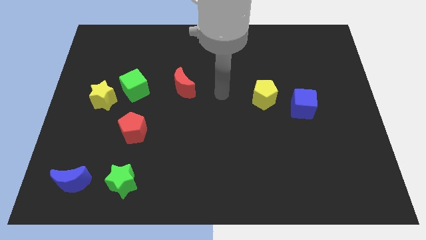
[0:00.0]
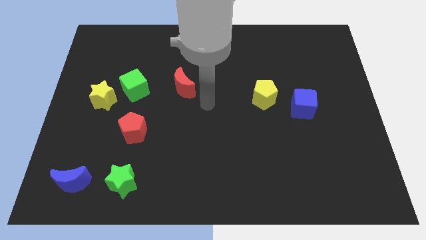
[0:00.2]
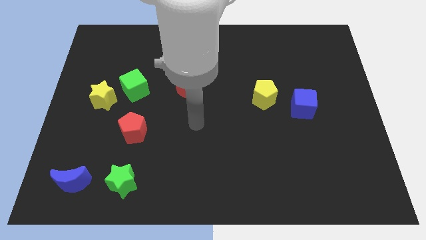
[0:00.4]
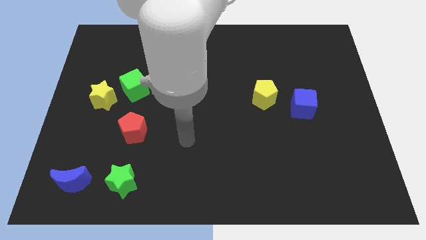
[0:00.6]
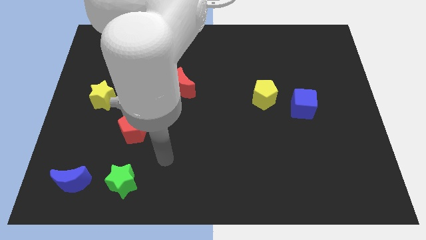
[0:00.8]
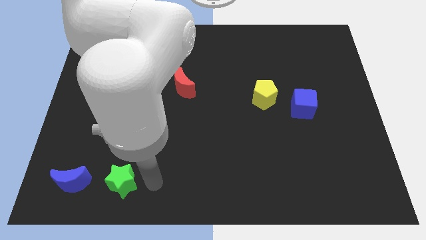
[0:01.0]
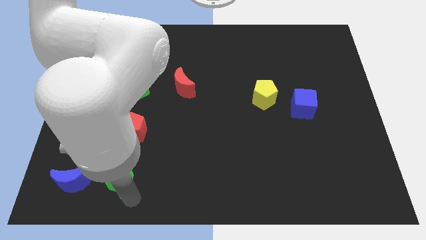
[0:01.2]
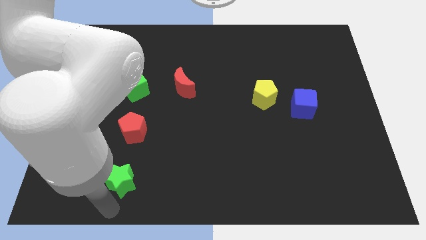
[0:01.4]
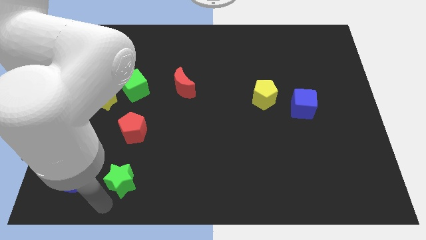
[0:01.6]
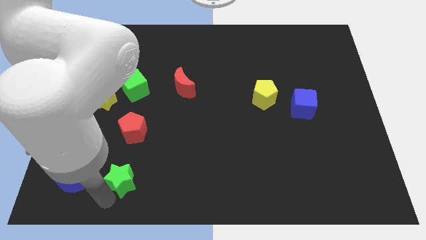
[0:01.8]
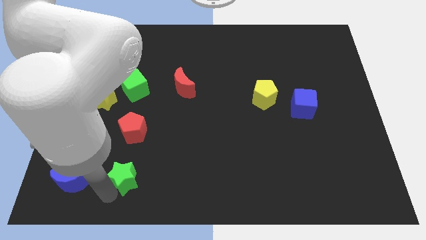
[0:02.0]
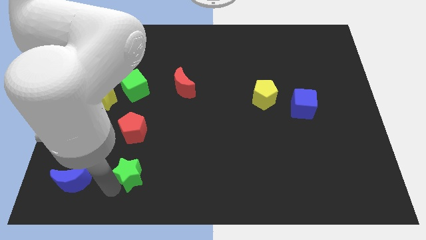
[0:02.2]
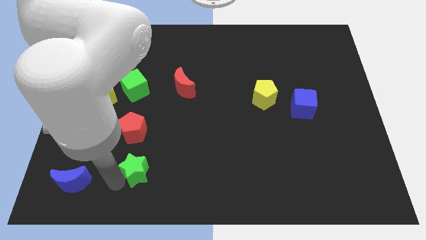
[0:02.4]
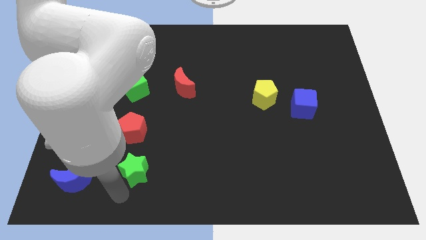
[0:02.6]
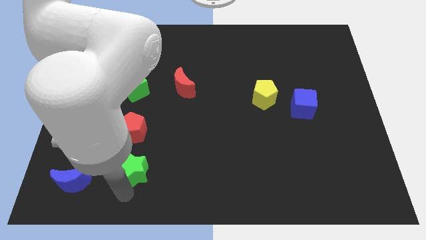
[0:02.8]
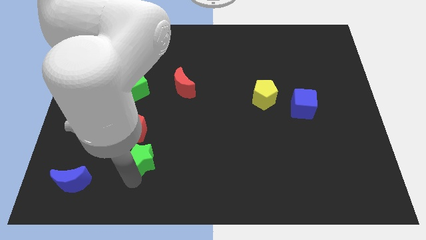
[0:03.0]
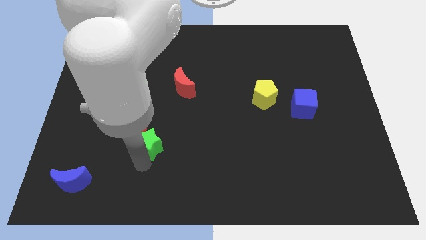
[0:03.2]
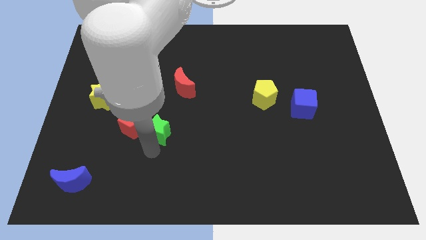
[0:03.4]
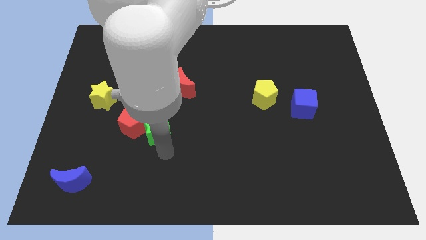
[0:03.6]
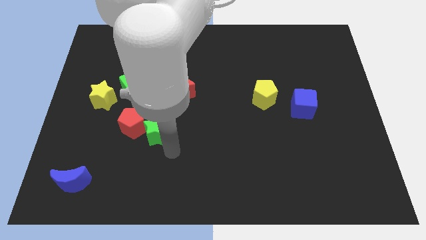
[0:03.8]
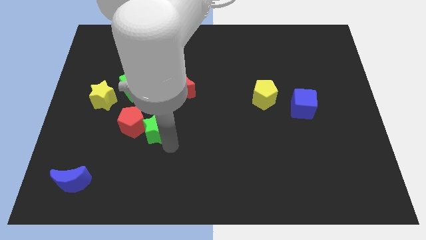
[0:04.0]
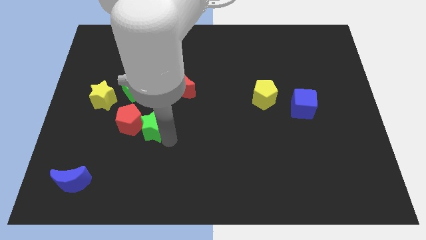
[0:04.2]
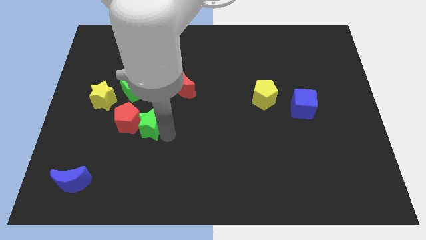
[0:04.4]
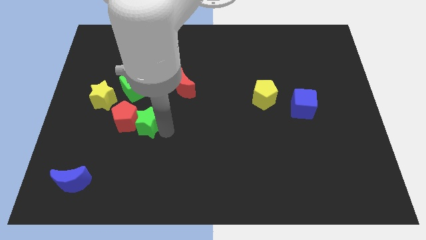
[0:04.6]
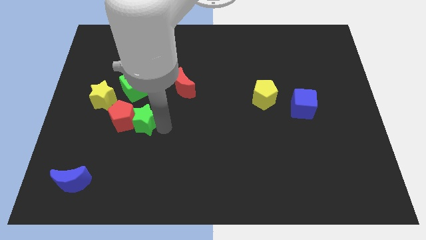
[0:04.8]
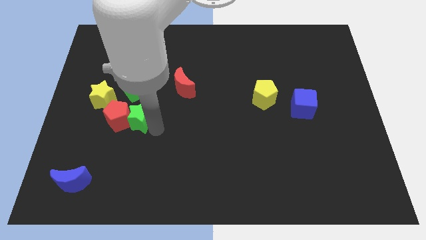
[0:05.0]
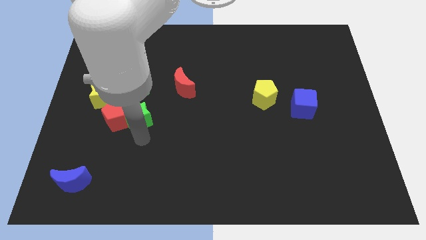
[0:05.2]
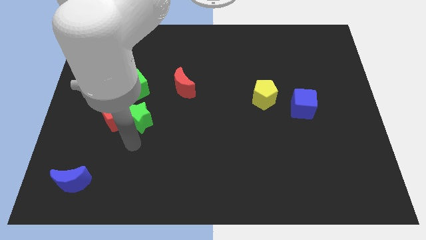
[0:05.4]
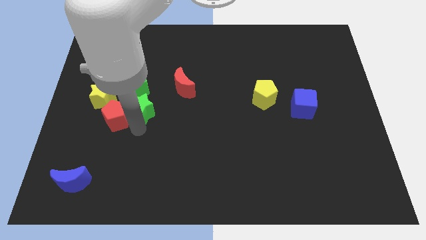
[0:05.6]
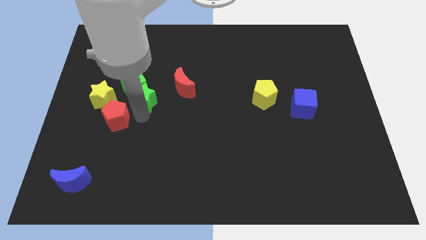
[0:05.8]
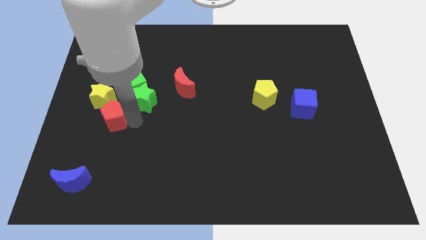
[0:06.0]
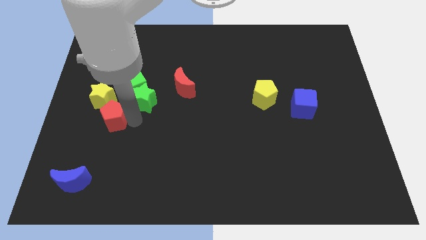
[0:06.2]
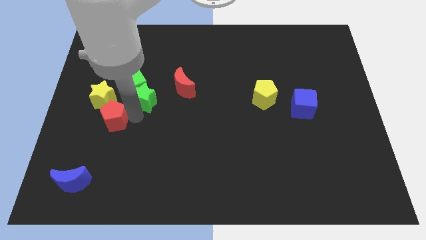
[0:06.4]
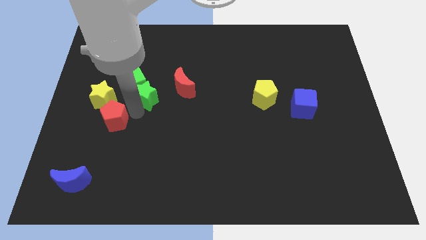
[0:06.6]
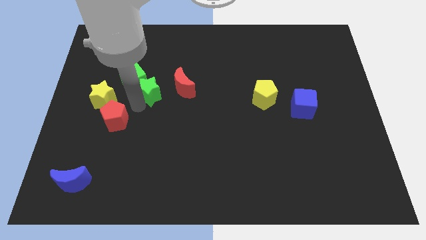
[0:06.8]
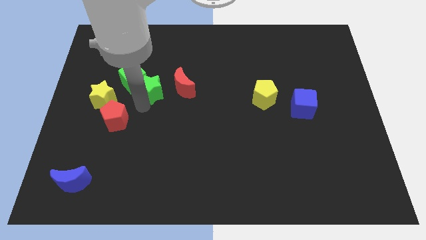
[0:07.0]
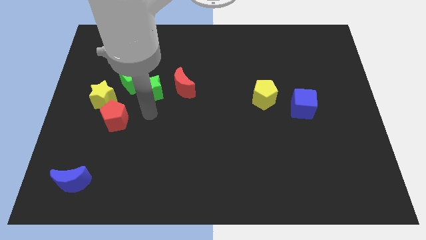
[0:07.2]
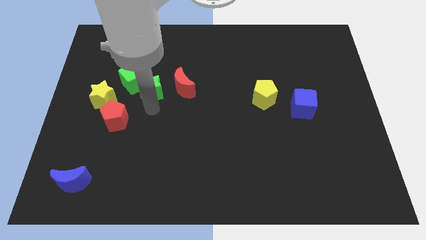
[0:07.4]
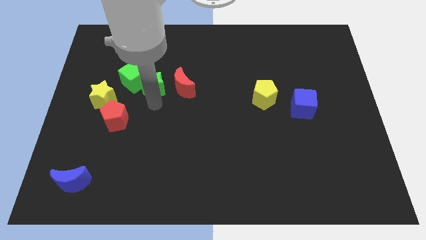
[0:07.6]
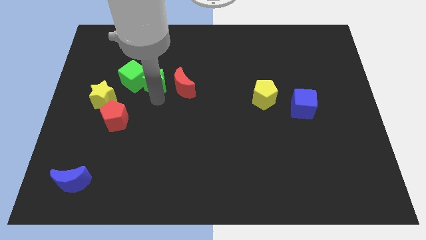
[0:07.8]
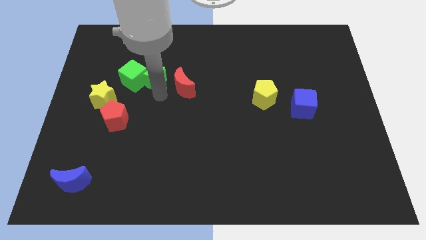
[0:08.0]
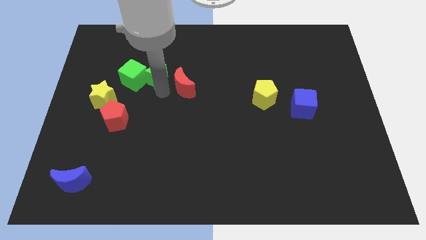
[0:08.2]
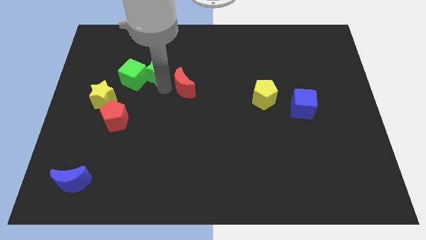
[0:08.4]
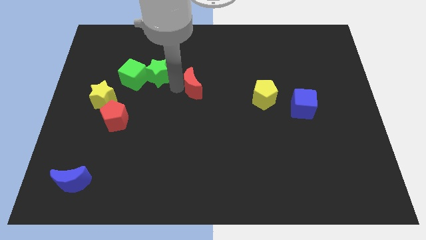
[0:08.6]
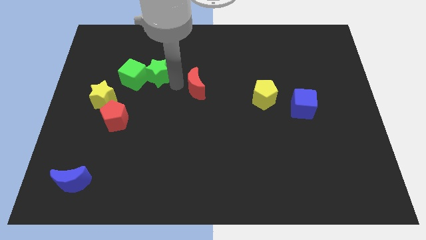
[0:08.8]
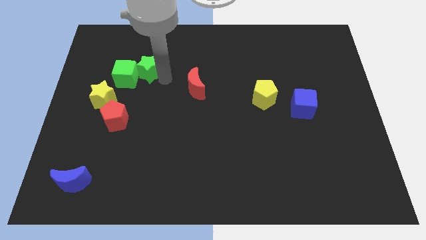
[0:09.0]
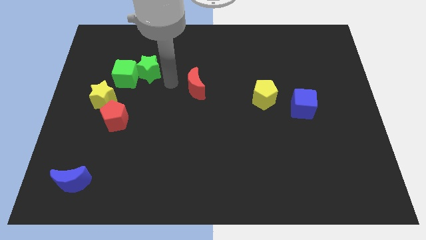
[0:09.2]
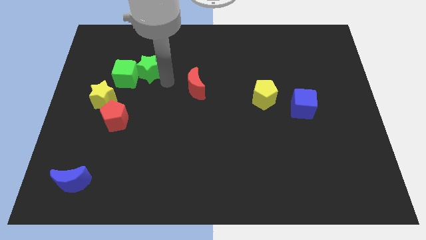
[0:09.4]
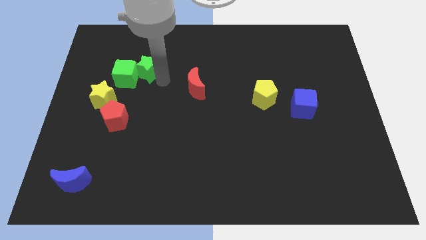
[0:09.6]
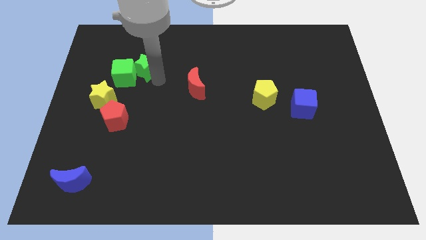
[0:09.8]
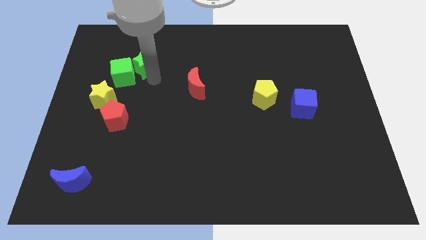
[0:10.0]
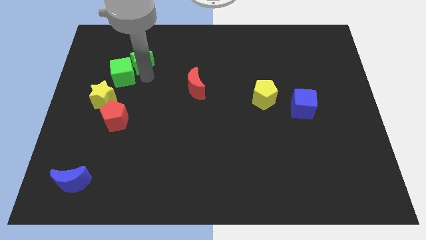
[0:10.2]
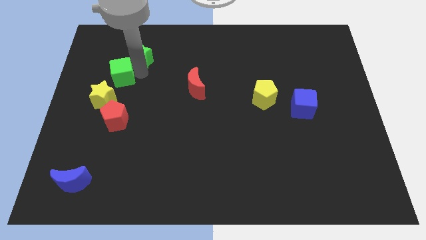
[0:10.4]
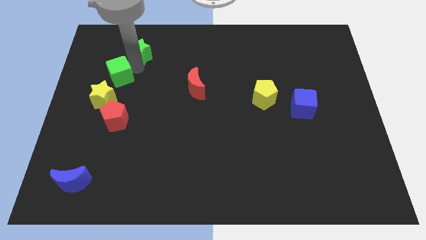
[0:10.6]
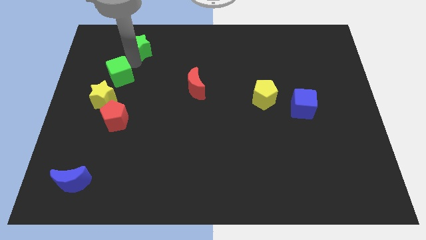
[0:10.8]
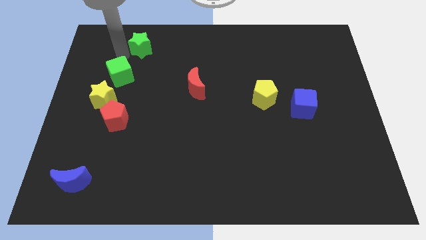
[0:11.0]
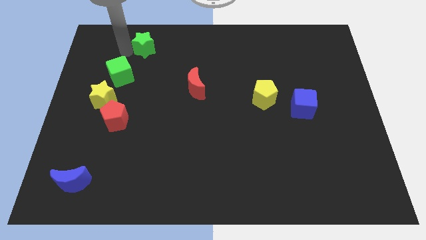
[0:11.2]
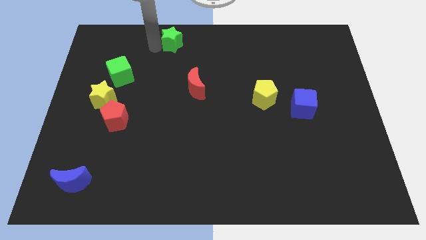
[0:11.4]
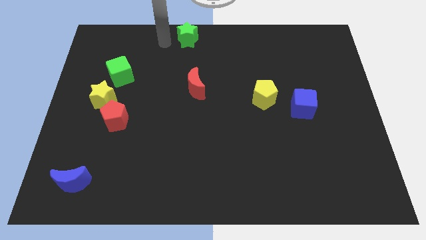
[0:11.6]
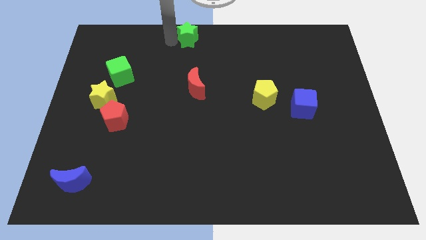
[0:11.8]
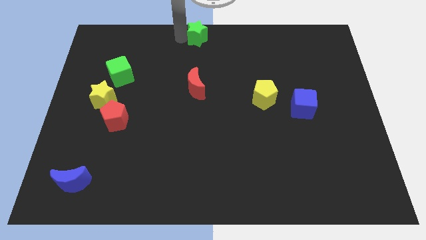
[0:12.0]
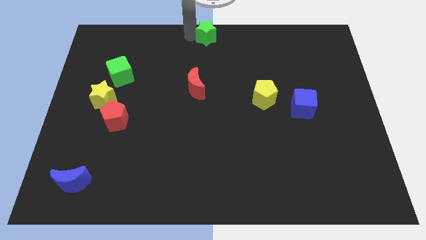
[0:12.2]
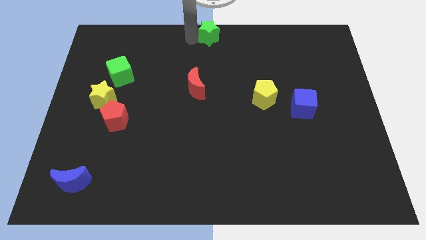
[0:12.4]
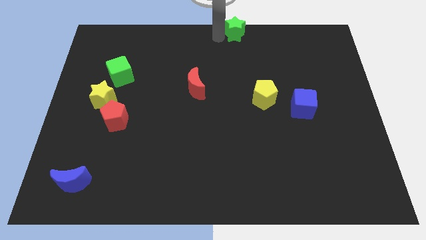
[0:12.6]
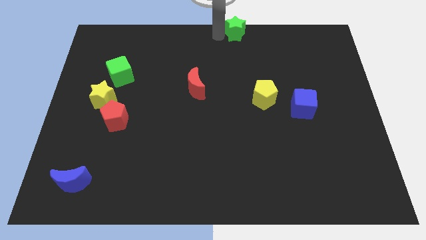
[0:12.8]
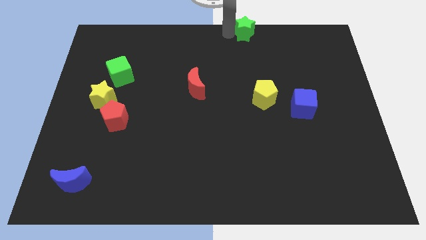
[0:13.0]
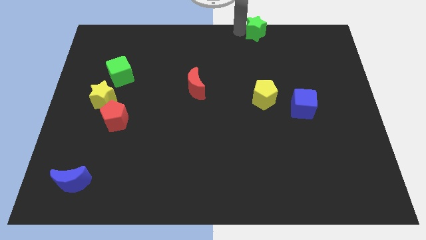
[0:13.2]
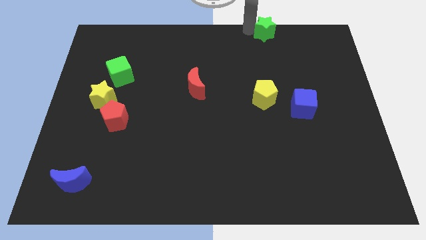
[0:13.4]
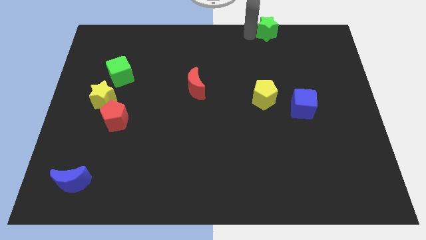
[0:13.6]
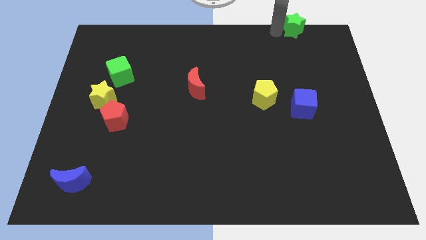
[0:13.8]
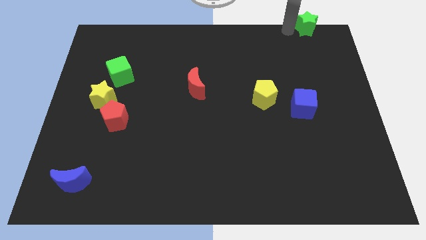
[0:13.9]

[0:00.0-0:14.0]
push the green star to the top right of the board

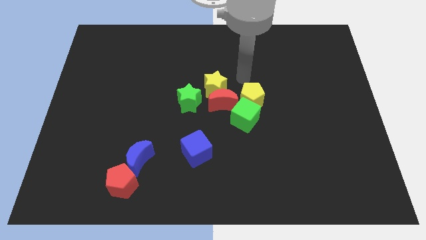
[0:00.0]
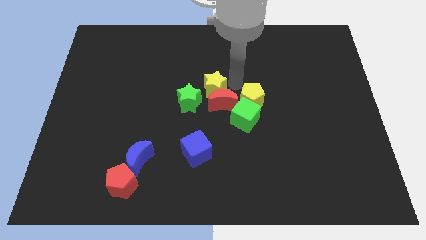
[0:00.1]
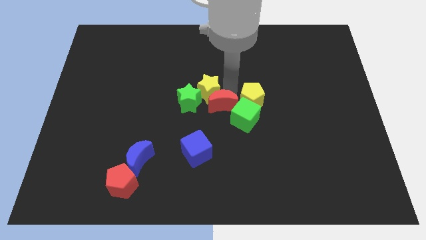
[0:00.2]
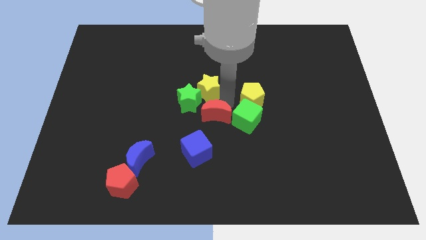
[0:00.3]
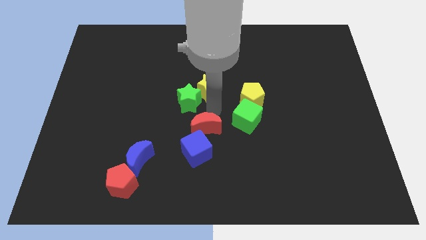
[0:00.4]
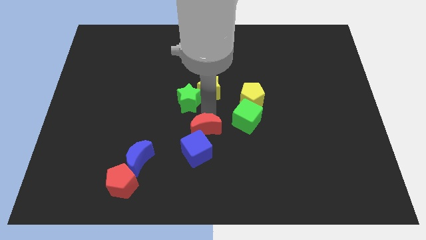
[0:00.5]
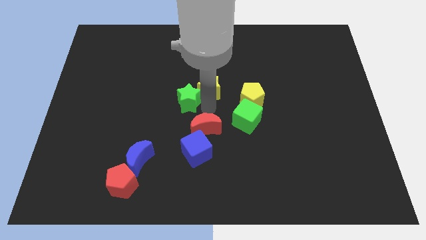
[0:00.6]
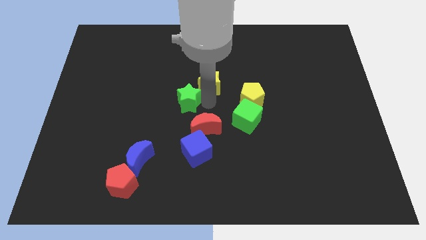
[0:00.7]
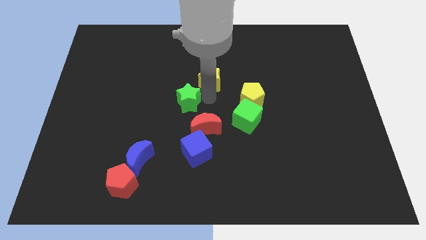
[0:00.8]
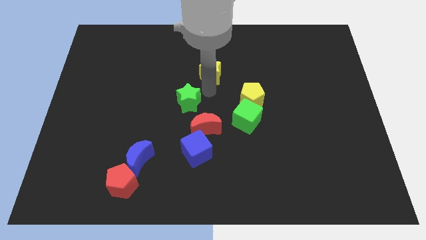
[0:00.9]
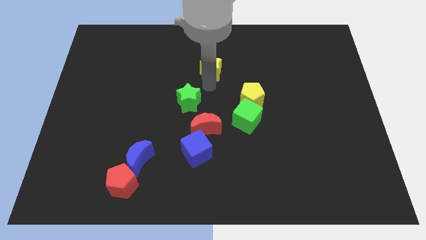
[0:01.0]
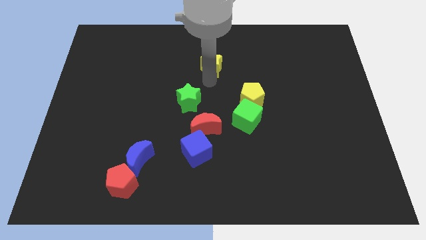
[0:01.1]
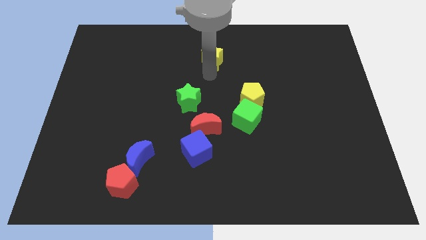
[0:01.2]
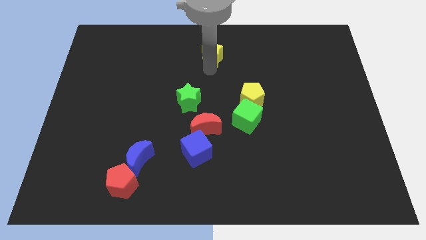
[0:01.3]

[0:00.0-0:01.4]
put the yellow star to the top
